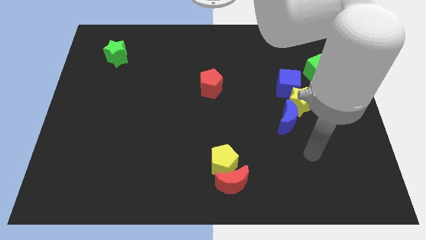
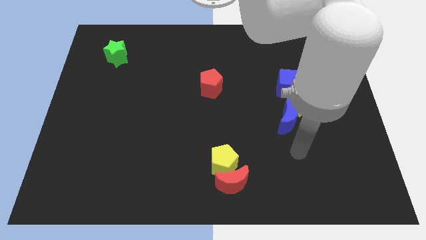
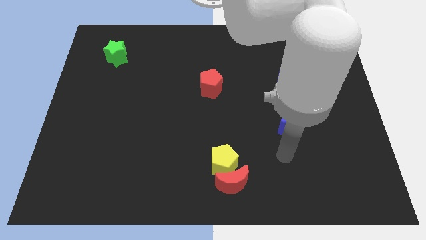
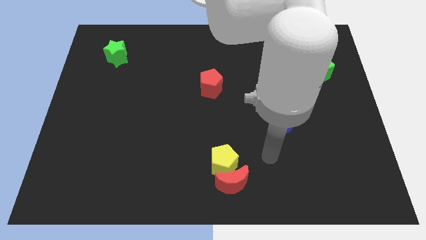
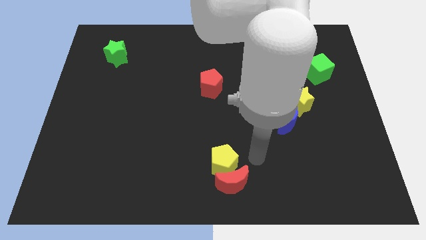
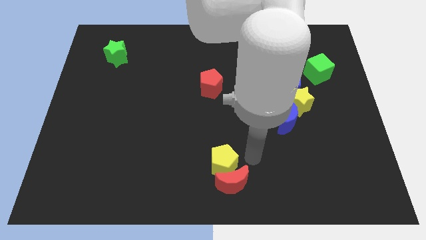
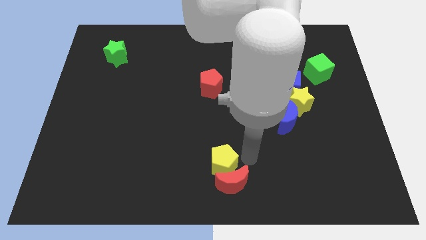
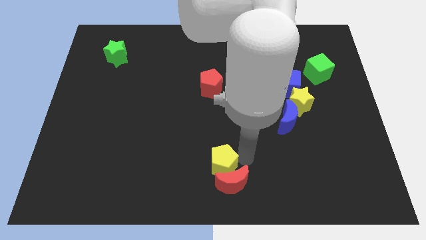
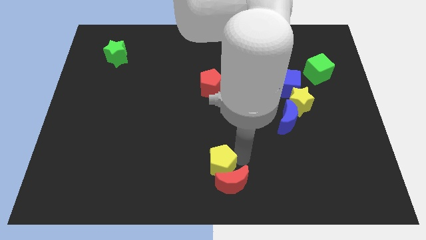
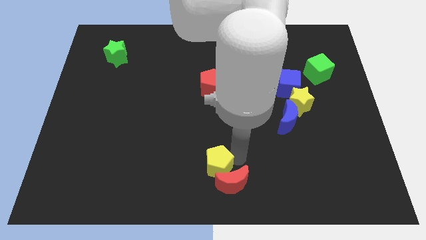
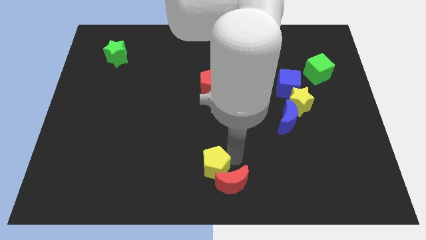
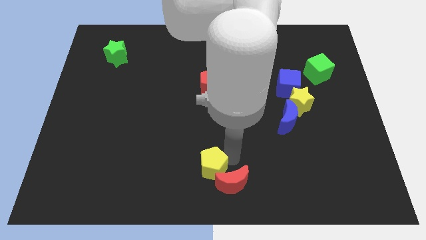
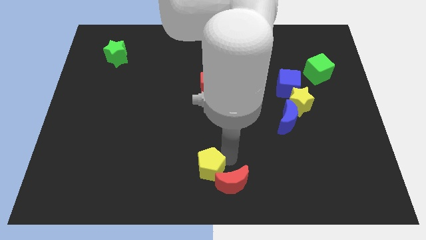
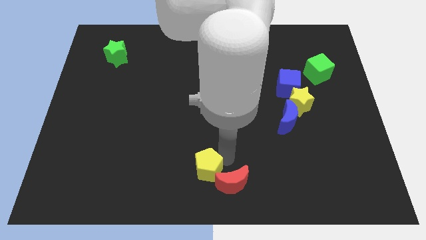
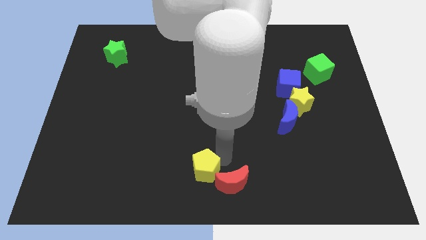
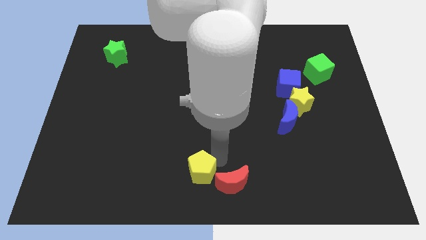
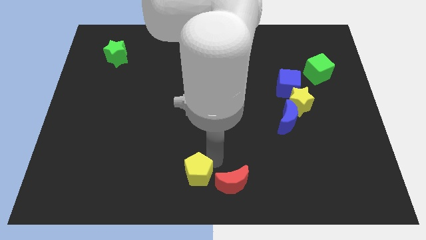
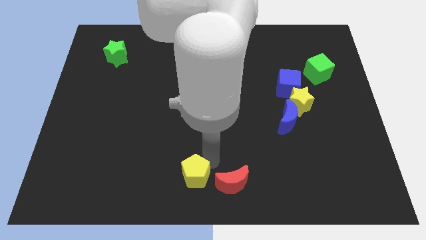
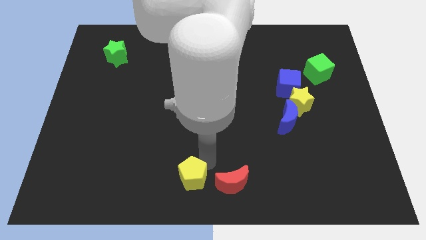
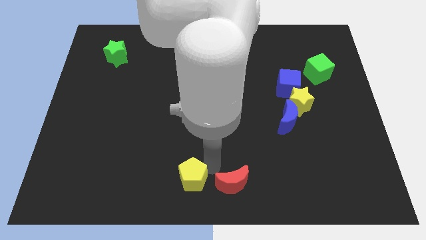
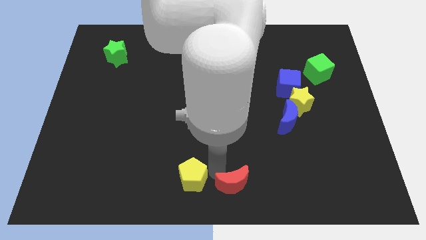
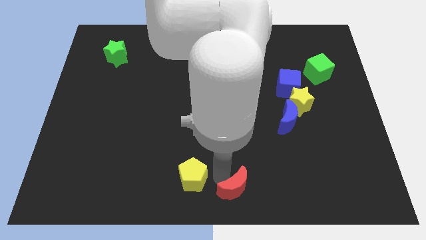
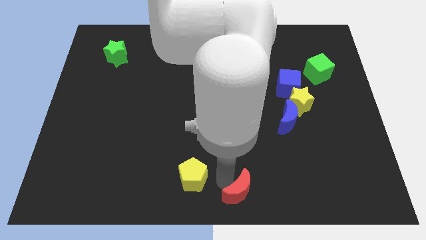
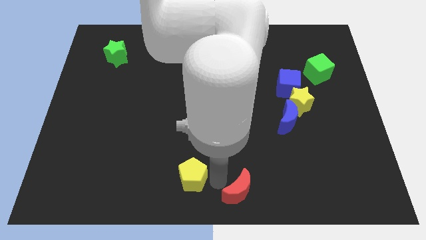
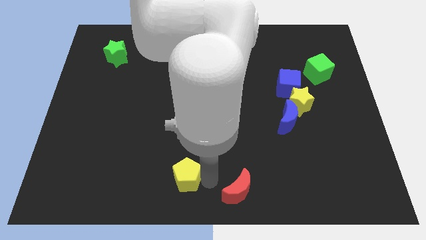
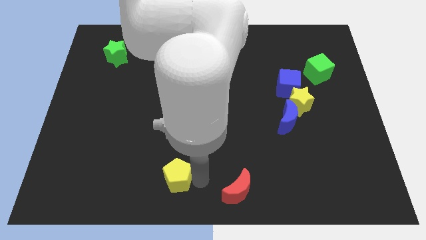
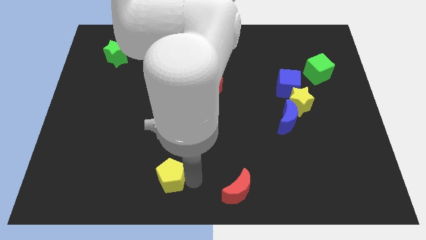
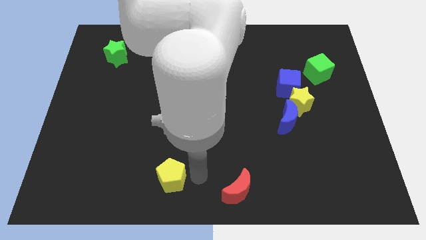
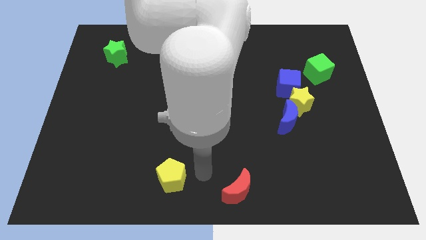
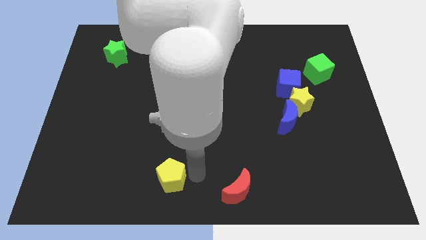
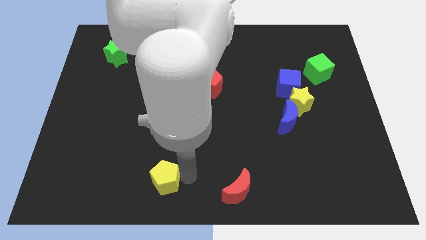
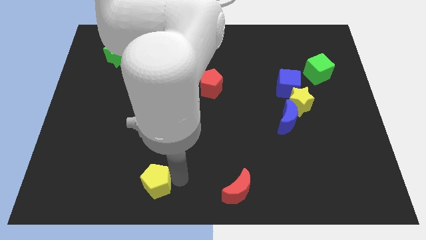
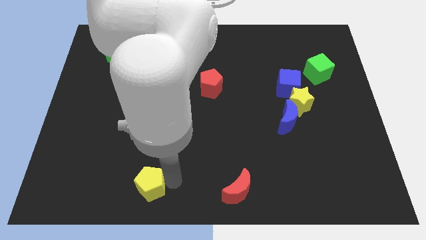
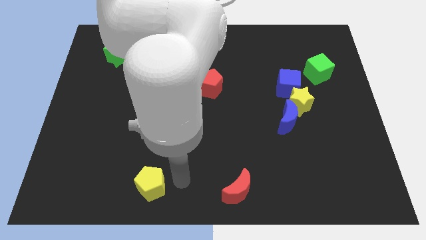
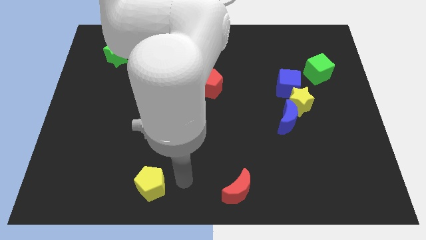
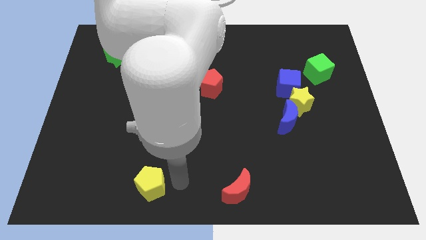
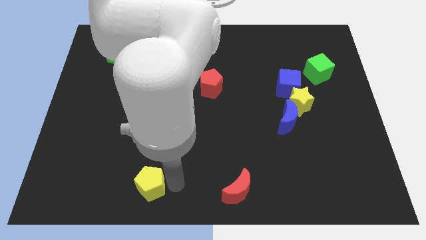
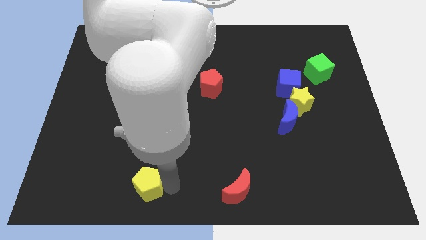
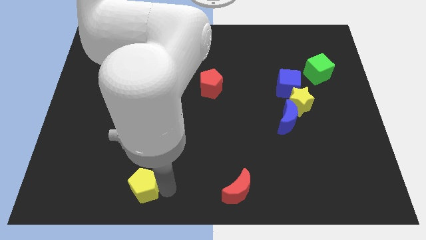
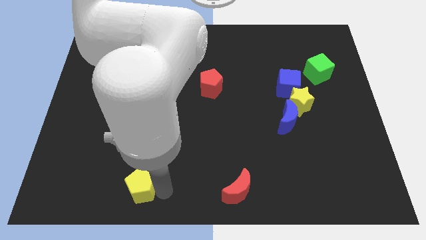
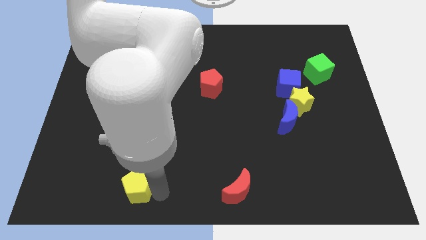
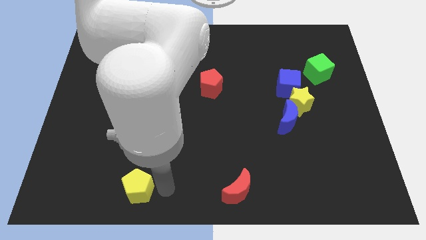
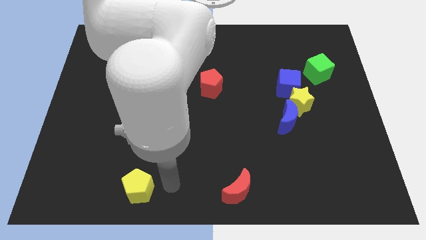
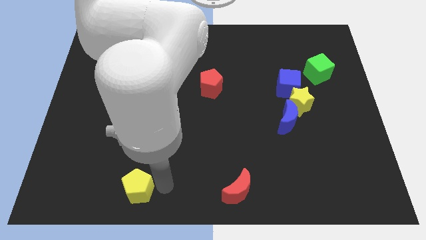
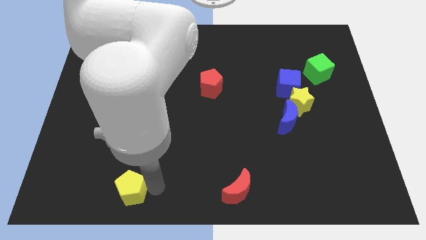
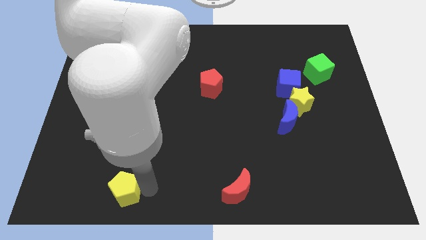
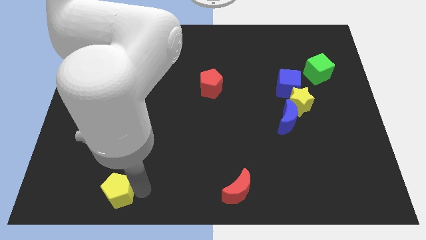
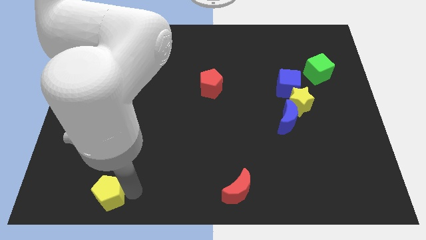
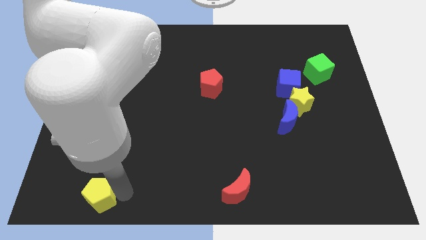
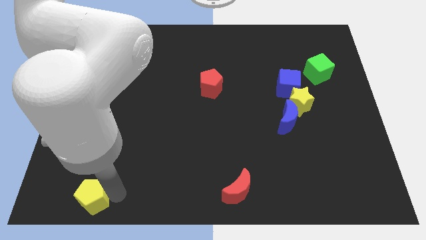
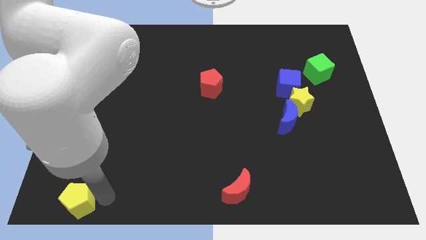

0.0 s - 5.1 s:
move the yellow pentagon to the bottom left corner

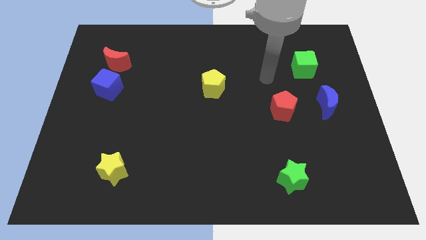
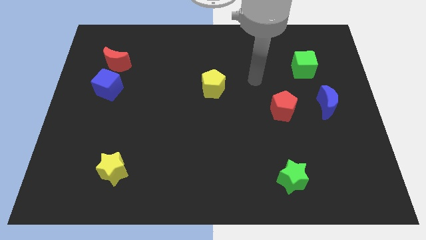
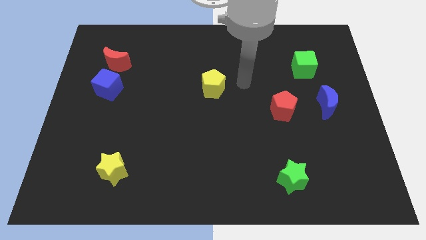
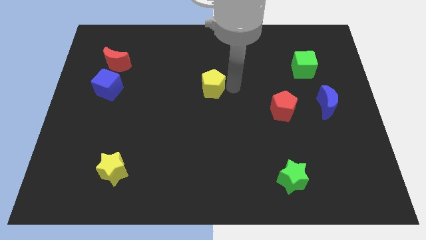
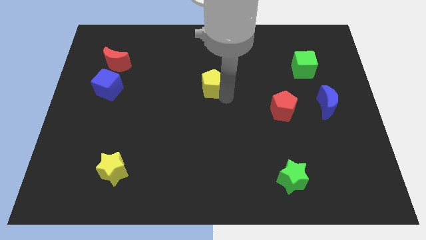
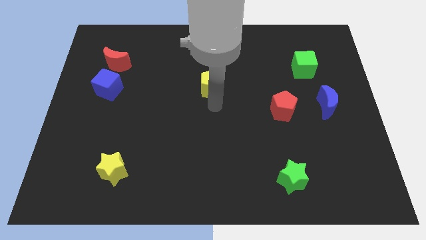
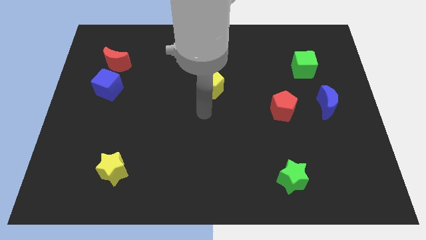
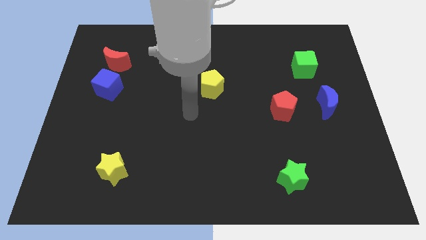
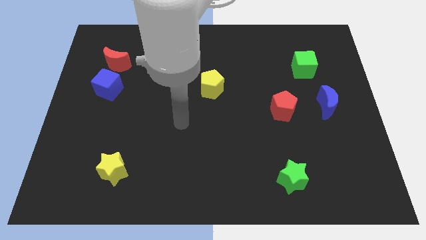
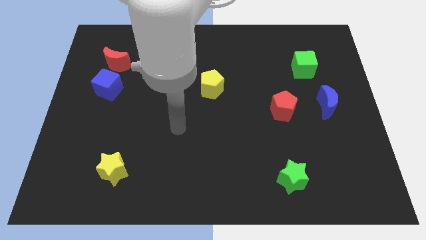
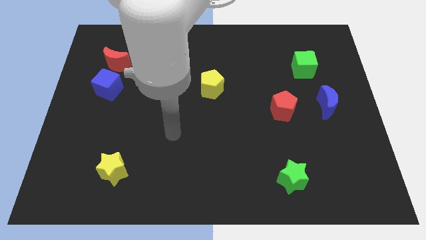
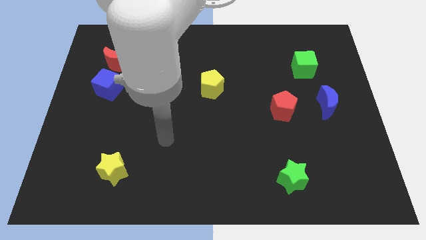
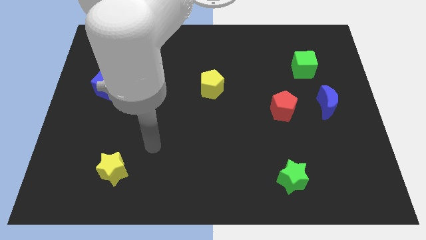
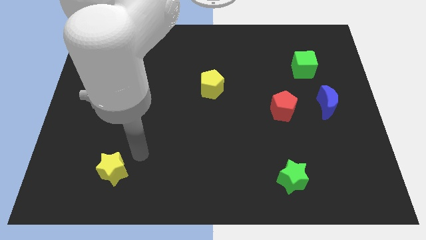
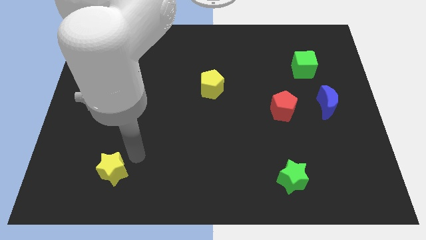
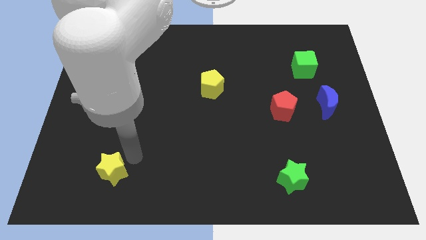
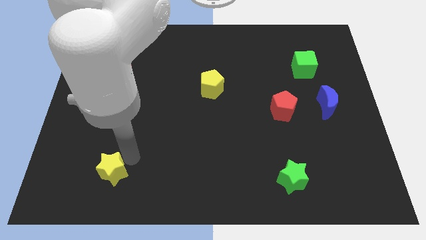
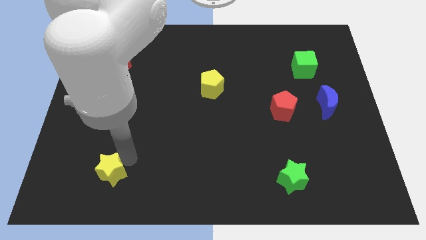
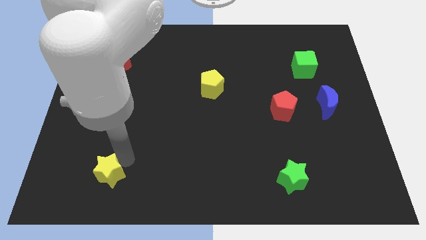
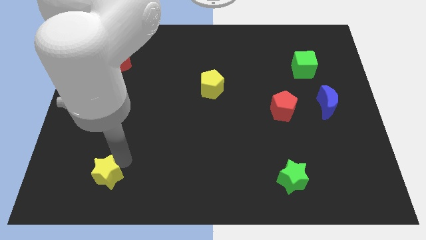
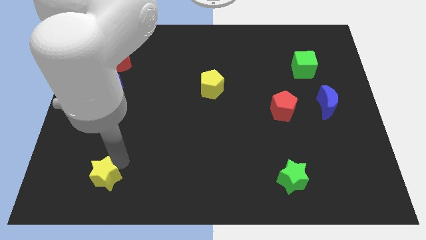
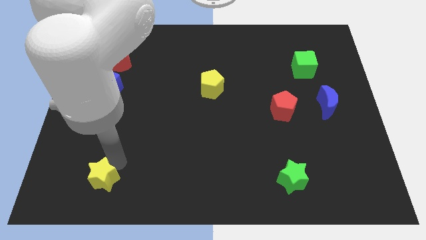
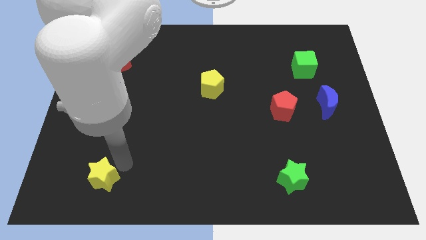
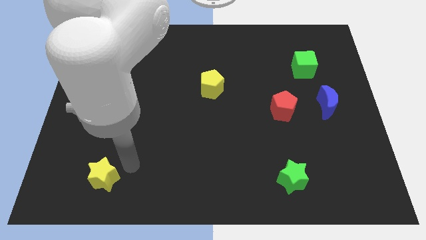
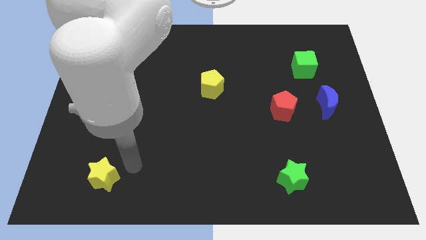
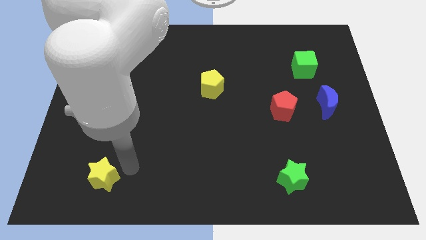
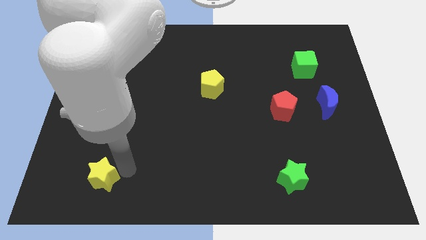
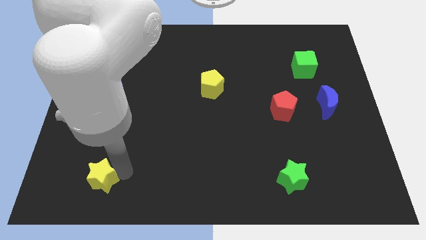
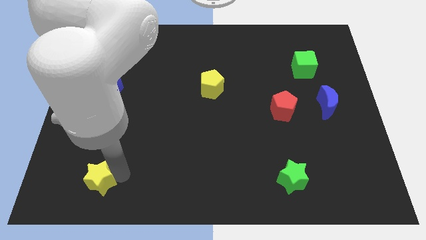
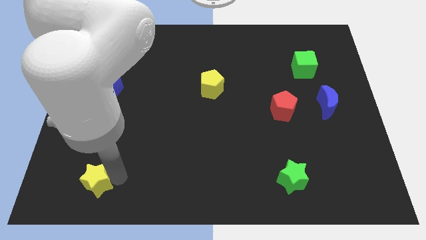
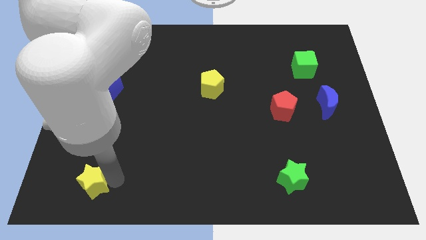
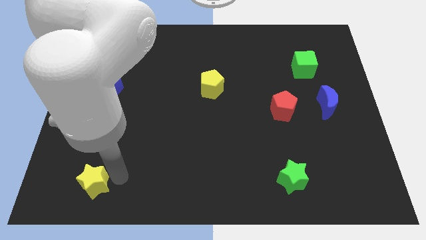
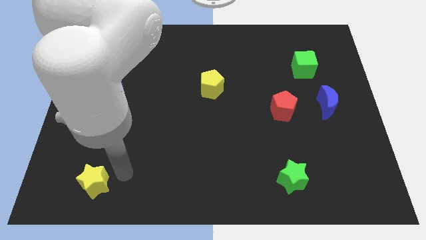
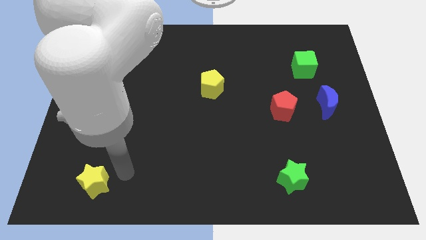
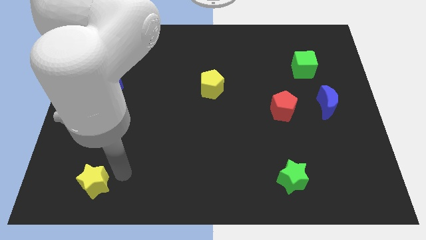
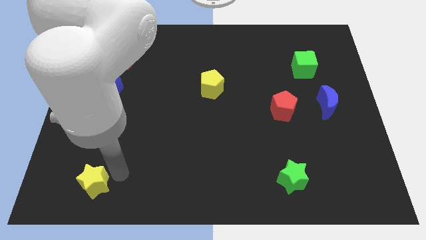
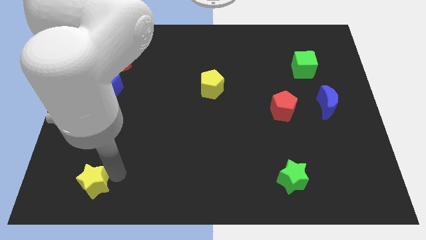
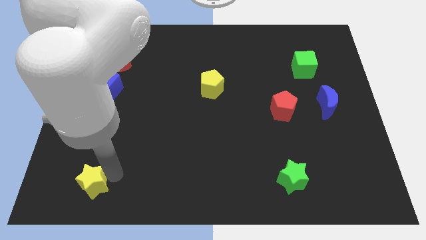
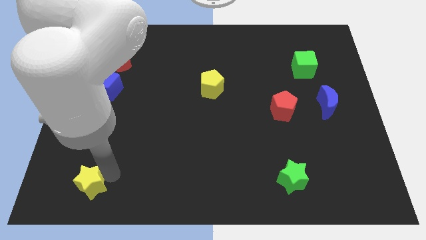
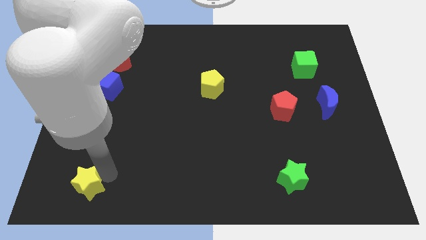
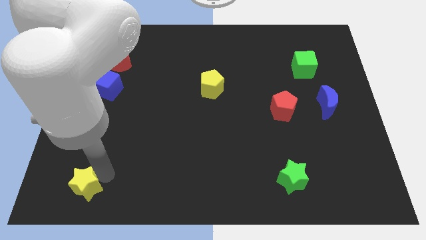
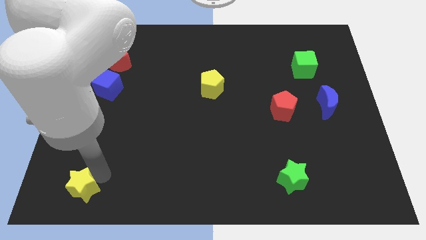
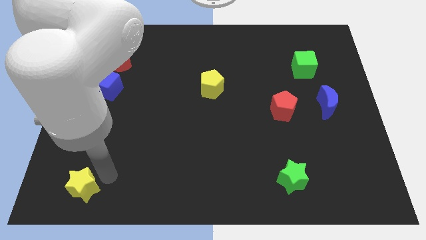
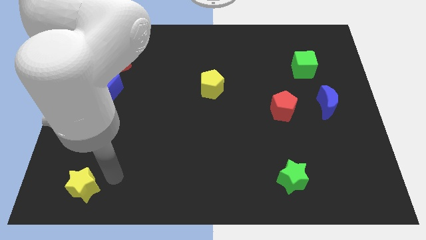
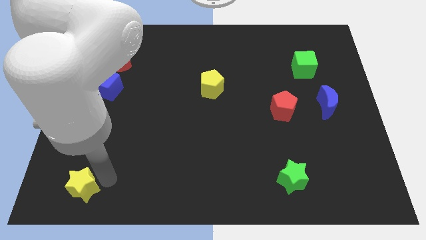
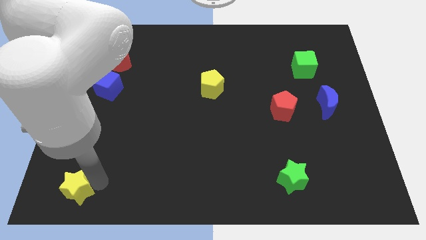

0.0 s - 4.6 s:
slide the yellow star to the bottom left of the board
